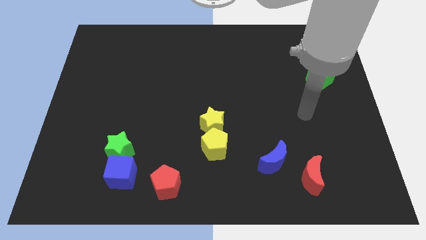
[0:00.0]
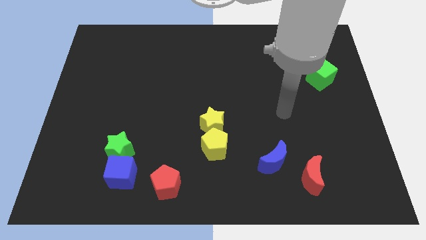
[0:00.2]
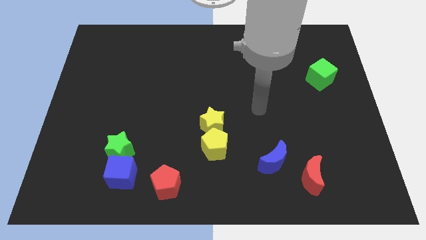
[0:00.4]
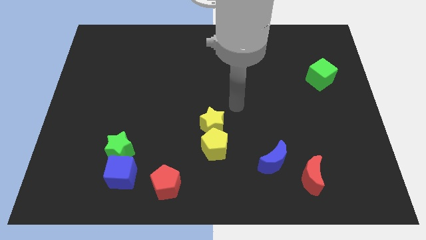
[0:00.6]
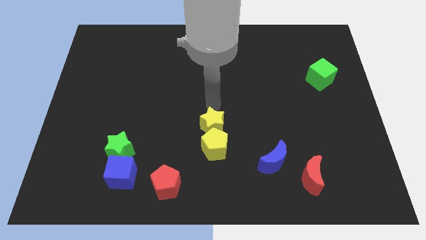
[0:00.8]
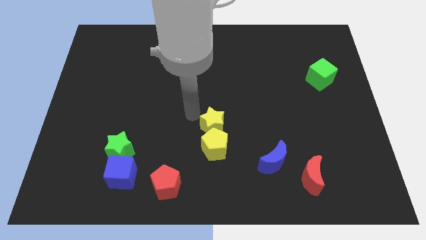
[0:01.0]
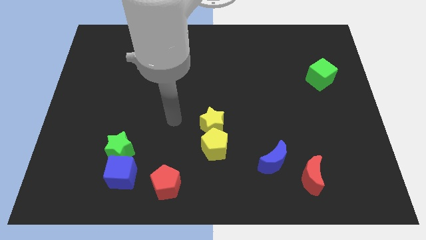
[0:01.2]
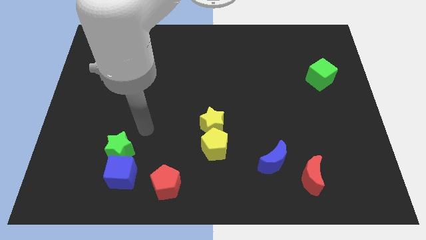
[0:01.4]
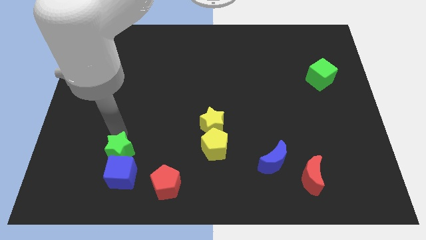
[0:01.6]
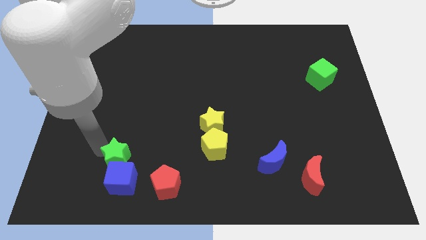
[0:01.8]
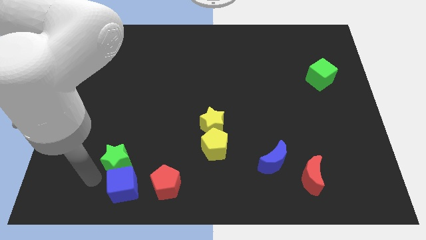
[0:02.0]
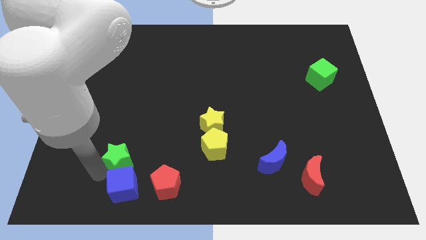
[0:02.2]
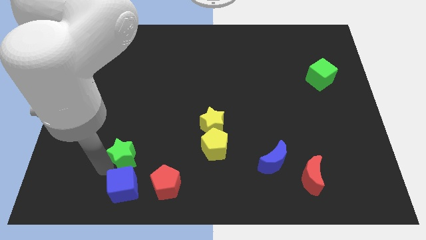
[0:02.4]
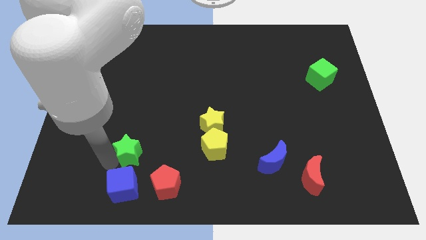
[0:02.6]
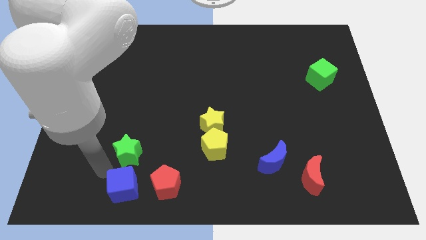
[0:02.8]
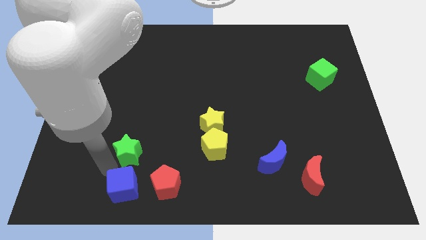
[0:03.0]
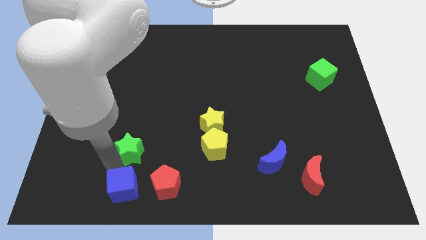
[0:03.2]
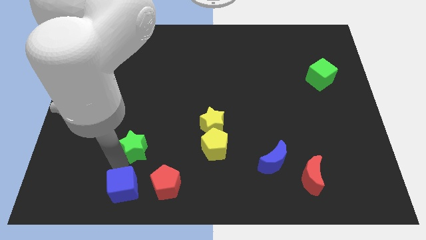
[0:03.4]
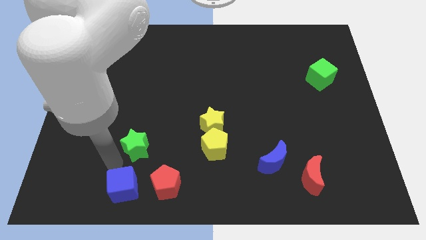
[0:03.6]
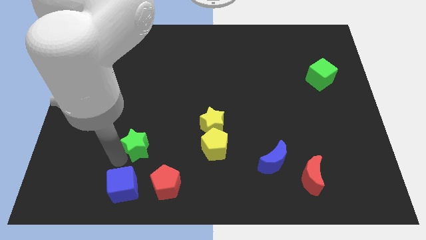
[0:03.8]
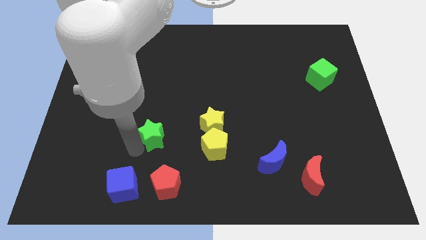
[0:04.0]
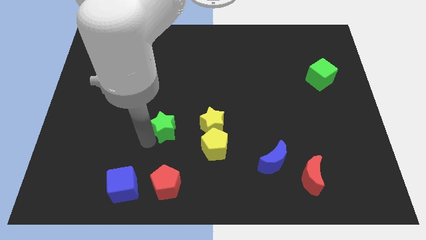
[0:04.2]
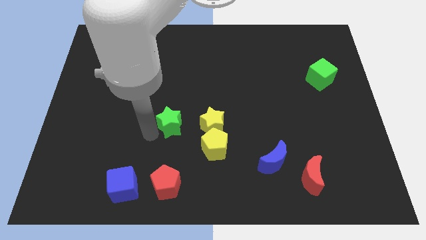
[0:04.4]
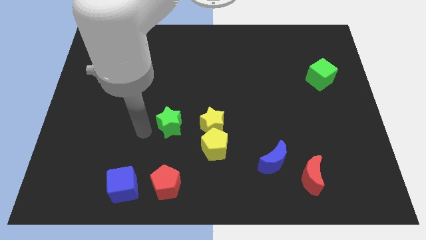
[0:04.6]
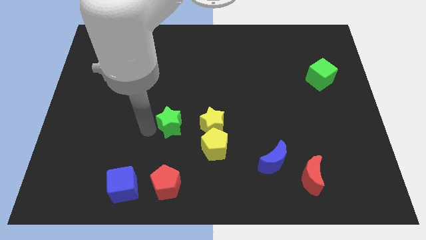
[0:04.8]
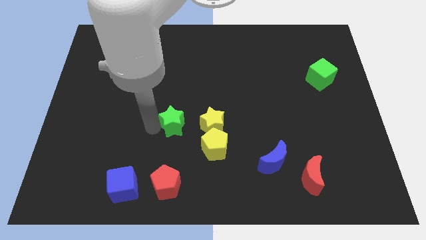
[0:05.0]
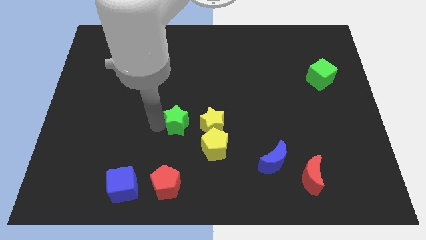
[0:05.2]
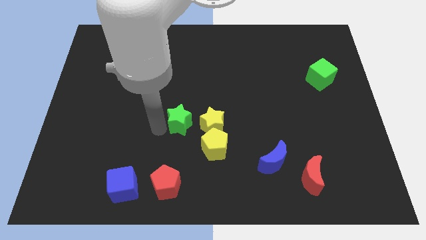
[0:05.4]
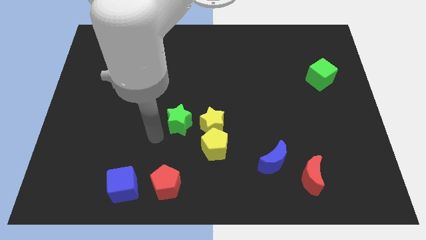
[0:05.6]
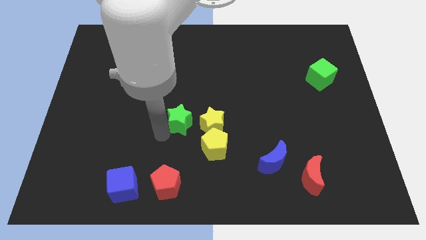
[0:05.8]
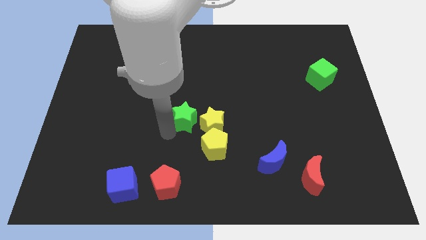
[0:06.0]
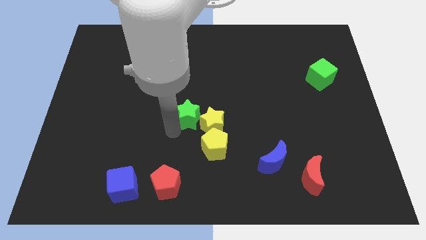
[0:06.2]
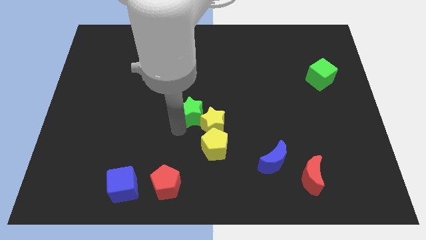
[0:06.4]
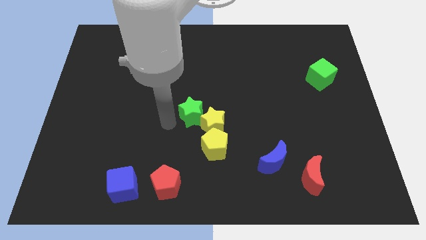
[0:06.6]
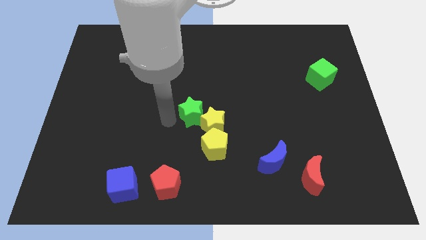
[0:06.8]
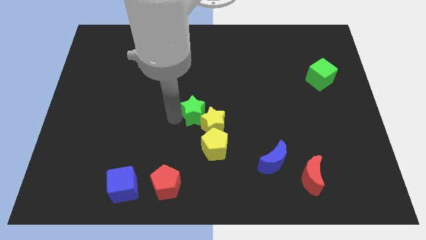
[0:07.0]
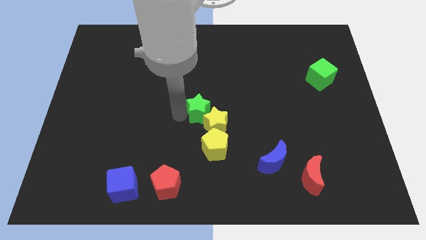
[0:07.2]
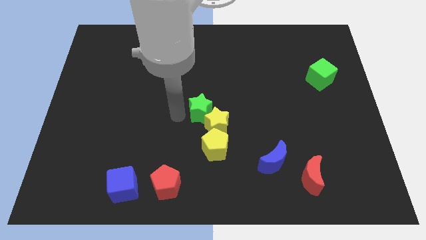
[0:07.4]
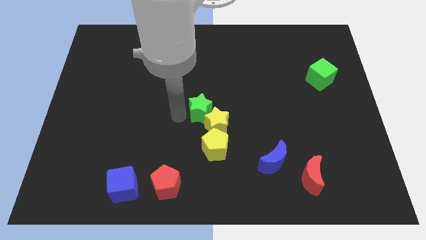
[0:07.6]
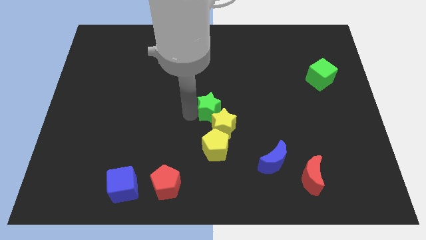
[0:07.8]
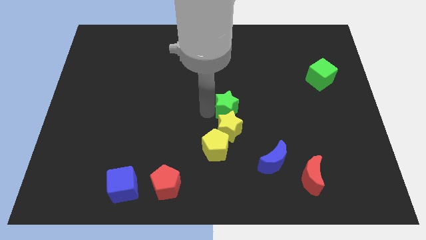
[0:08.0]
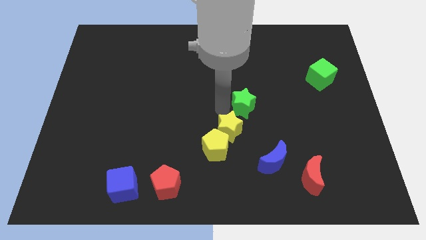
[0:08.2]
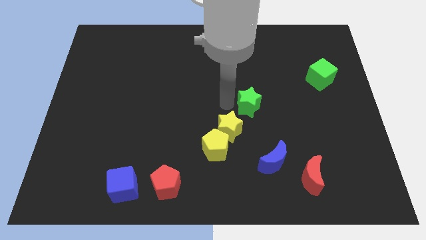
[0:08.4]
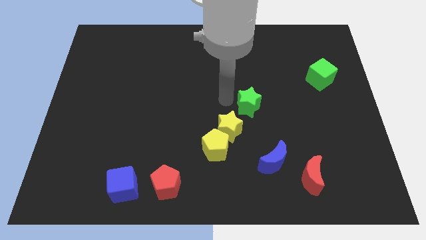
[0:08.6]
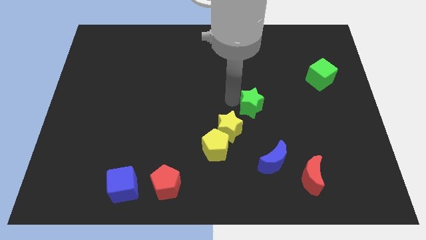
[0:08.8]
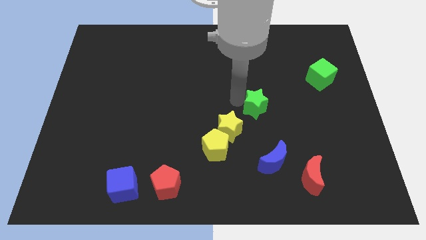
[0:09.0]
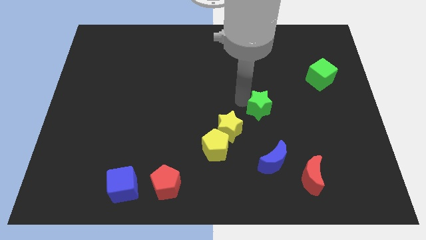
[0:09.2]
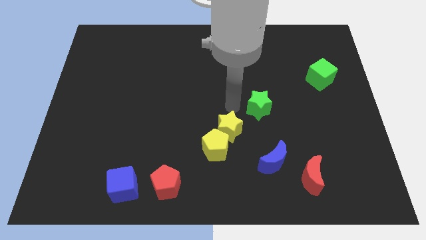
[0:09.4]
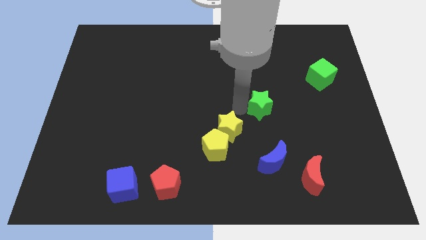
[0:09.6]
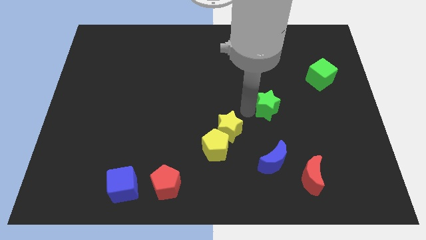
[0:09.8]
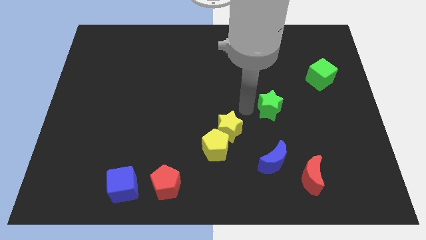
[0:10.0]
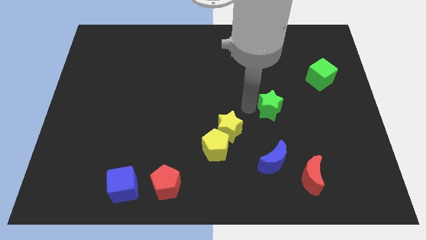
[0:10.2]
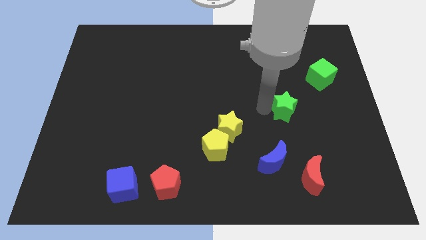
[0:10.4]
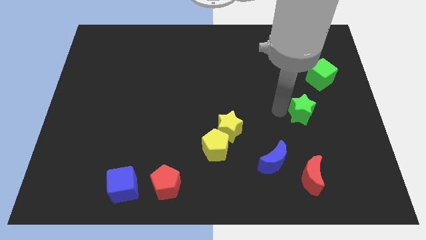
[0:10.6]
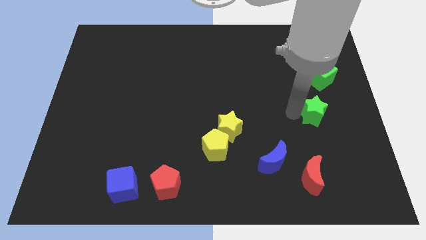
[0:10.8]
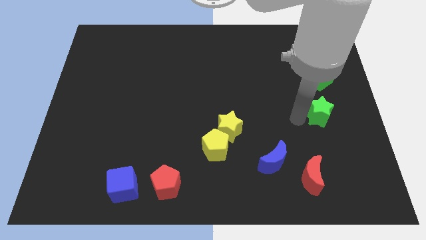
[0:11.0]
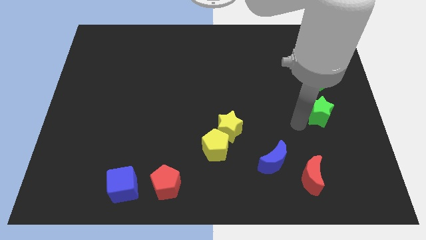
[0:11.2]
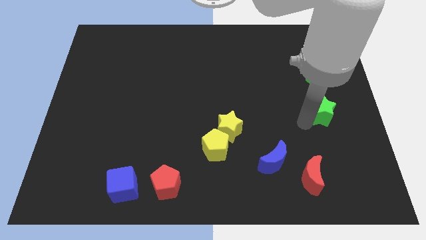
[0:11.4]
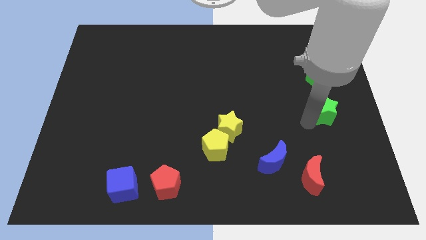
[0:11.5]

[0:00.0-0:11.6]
move the green star to the right side

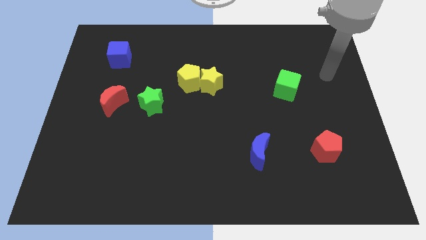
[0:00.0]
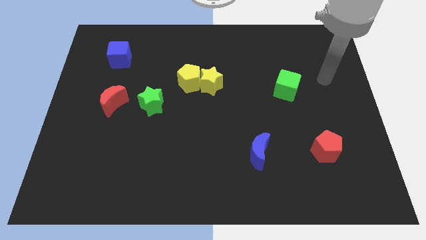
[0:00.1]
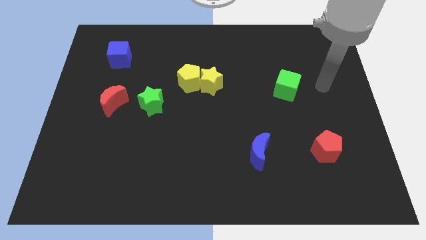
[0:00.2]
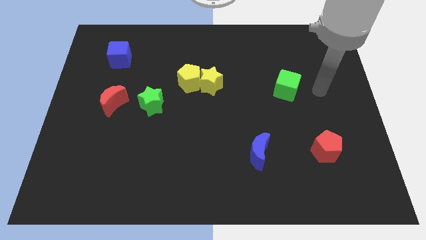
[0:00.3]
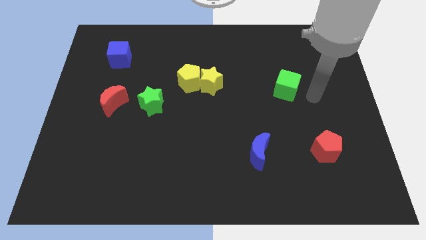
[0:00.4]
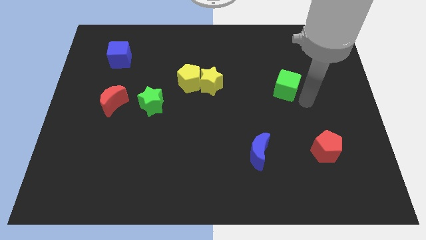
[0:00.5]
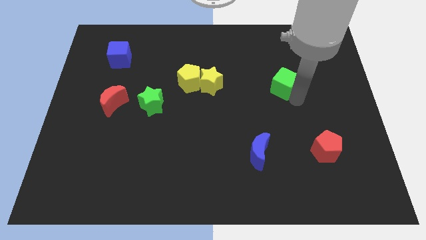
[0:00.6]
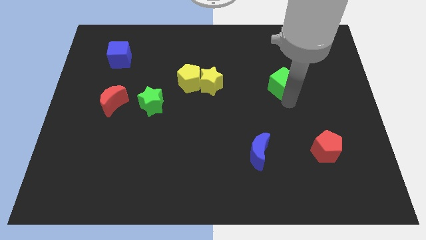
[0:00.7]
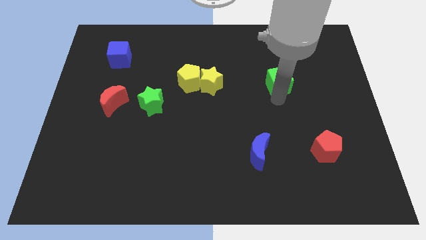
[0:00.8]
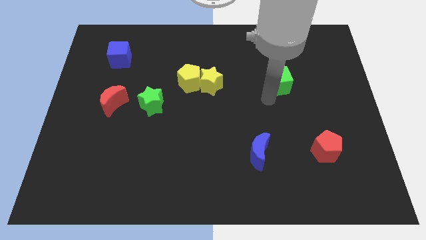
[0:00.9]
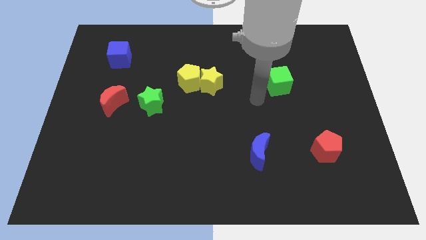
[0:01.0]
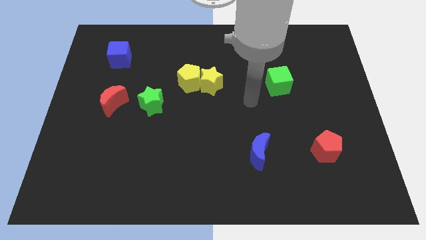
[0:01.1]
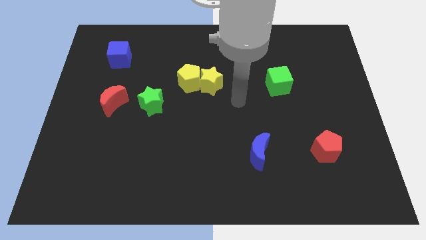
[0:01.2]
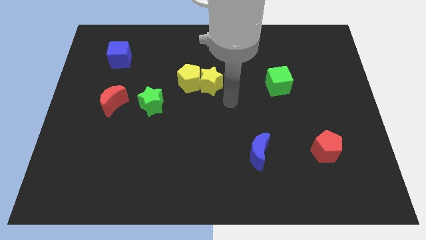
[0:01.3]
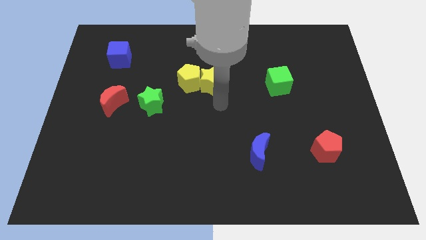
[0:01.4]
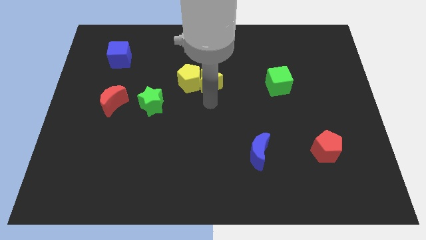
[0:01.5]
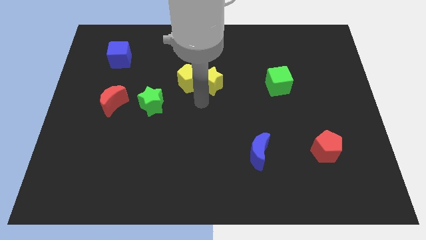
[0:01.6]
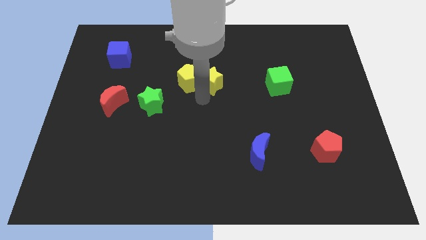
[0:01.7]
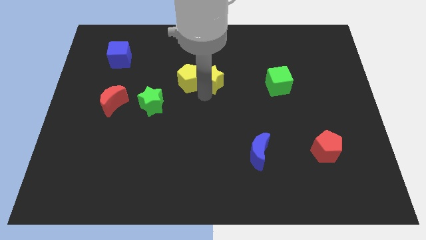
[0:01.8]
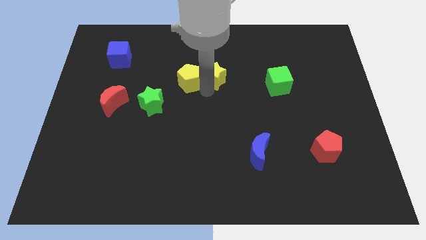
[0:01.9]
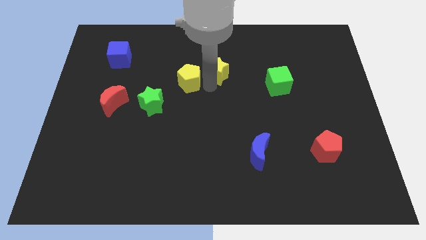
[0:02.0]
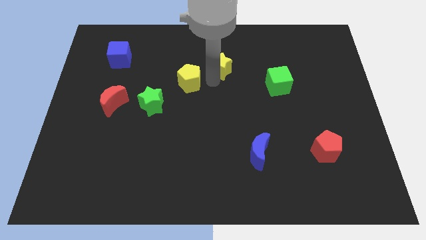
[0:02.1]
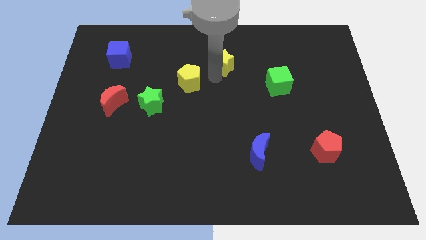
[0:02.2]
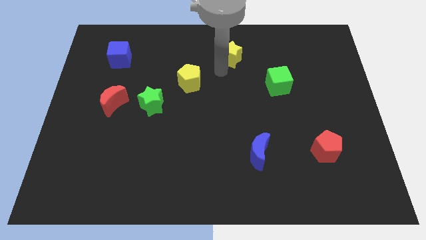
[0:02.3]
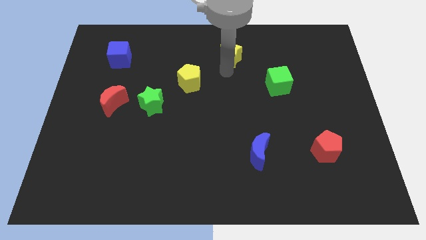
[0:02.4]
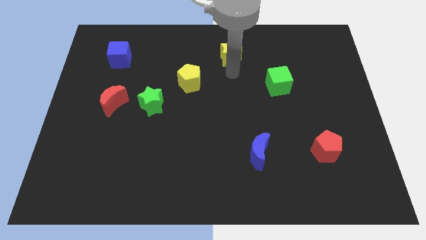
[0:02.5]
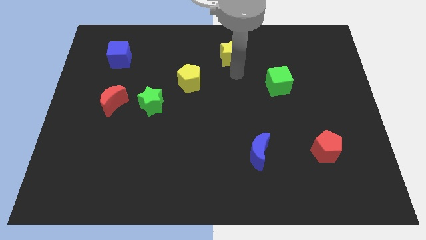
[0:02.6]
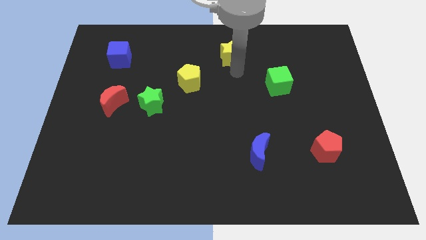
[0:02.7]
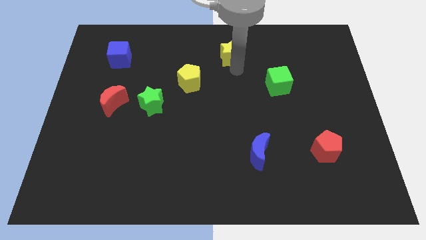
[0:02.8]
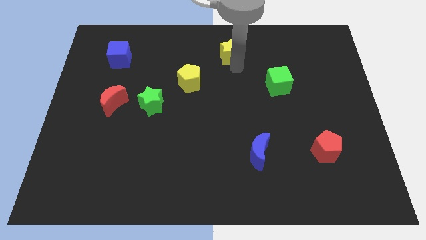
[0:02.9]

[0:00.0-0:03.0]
slide the yellow star to the top side
